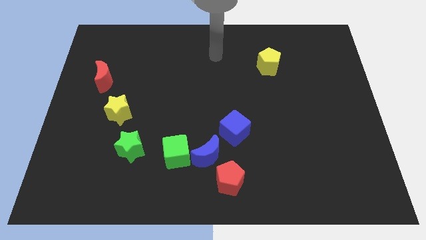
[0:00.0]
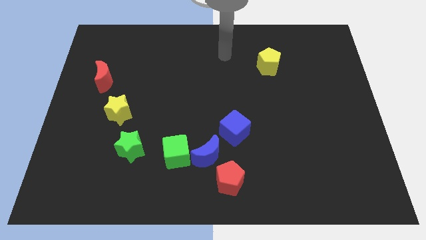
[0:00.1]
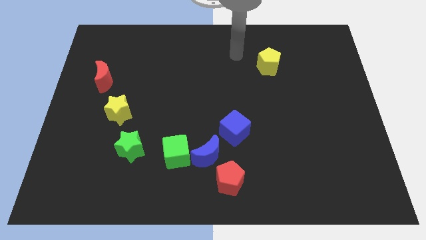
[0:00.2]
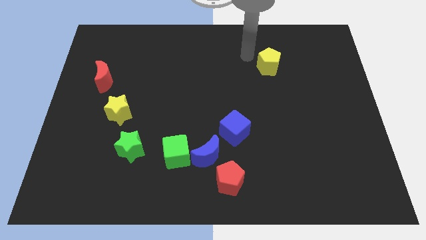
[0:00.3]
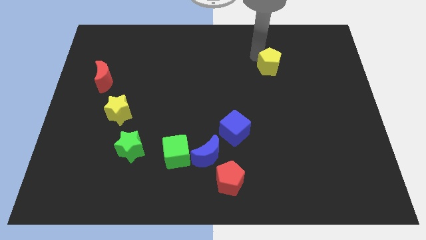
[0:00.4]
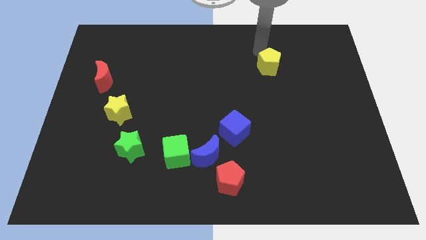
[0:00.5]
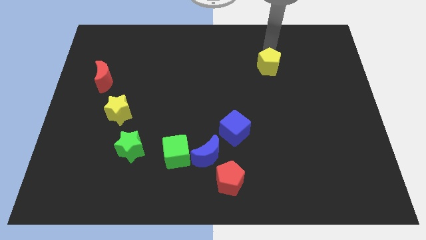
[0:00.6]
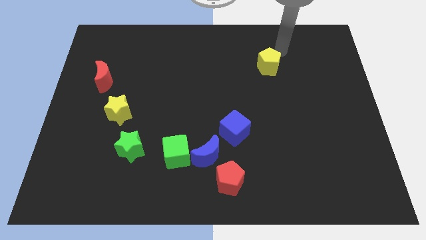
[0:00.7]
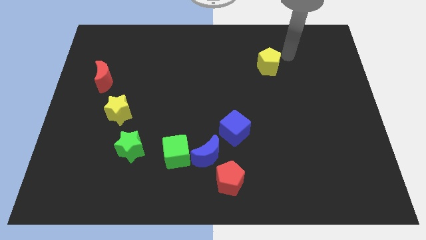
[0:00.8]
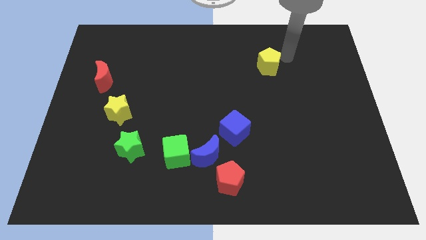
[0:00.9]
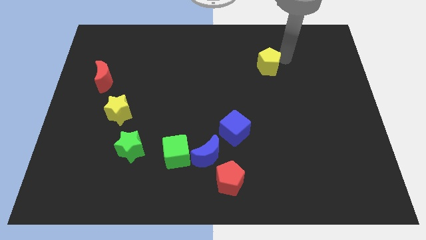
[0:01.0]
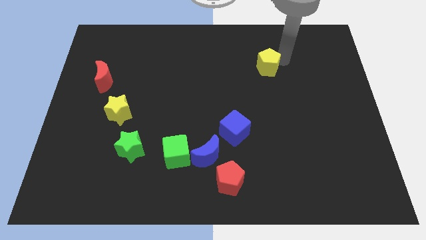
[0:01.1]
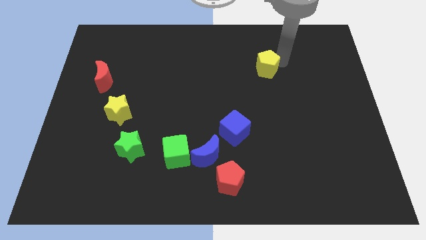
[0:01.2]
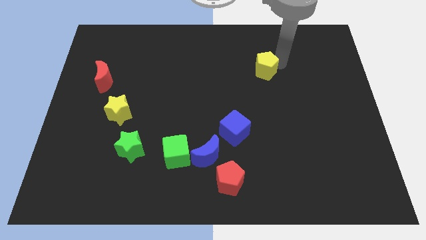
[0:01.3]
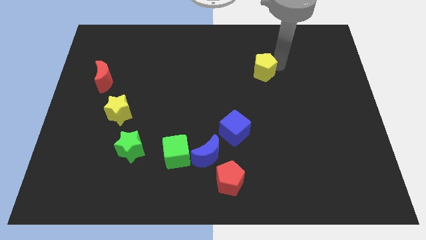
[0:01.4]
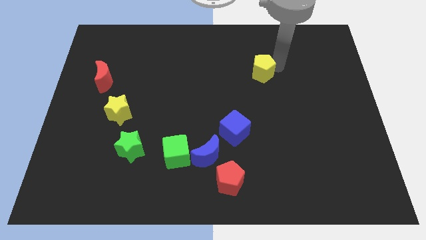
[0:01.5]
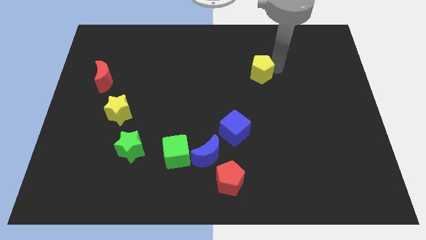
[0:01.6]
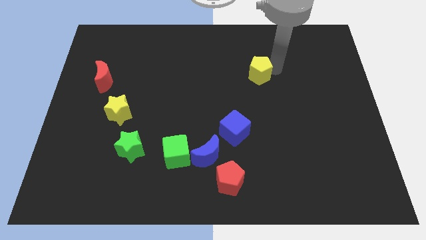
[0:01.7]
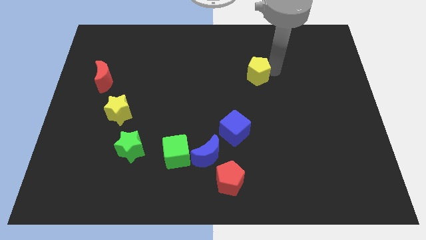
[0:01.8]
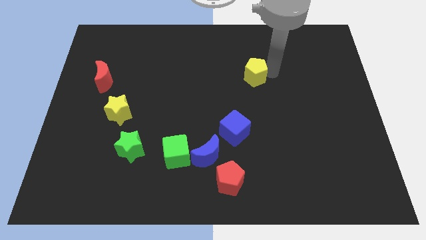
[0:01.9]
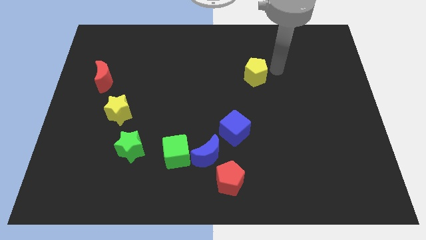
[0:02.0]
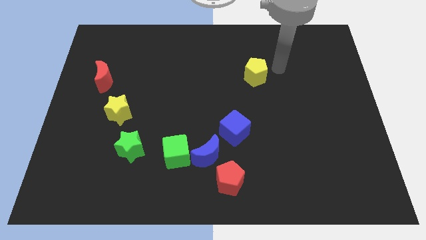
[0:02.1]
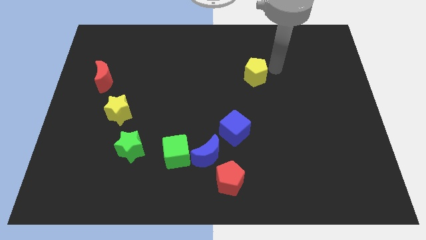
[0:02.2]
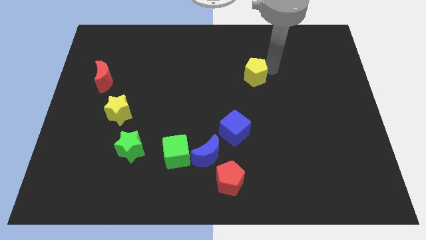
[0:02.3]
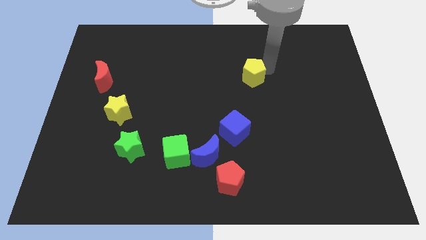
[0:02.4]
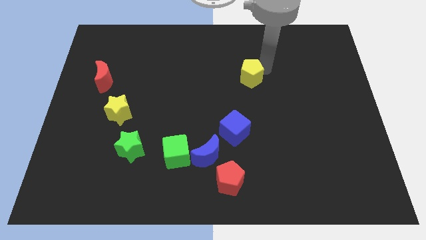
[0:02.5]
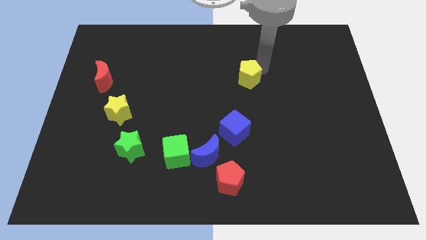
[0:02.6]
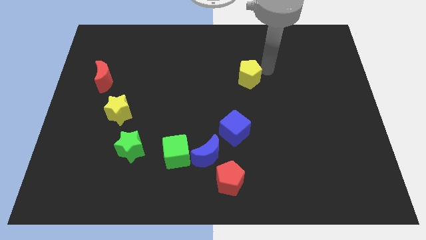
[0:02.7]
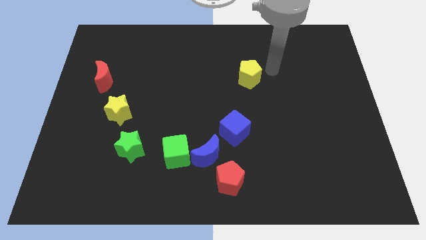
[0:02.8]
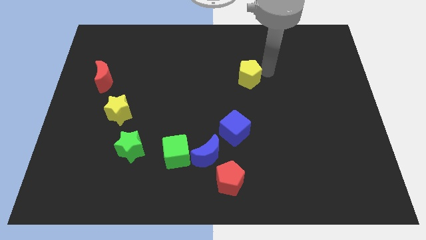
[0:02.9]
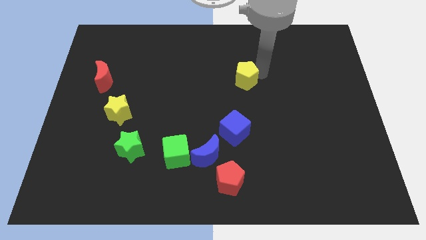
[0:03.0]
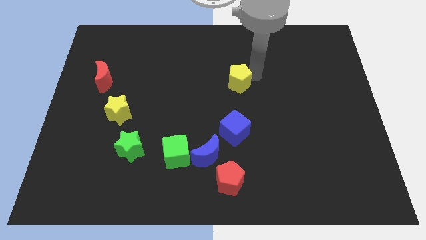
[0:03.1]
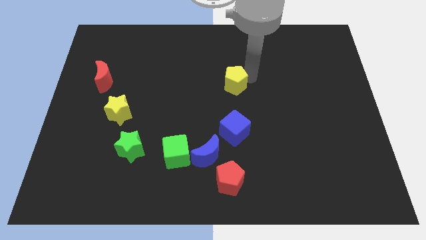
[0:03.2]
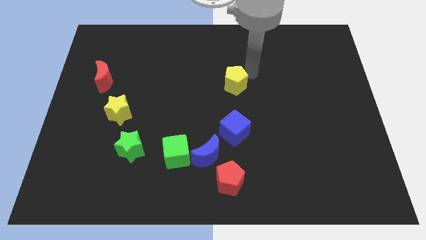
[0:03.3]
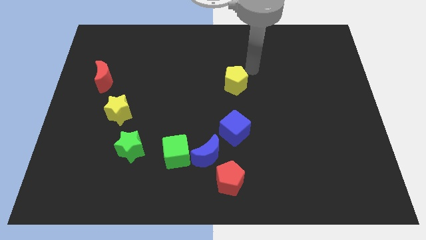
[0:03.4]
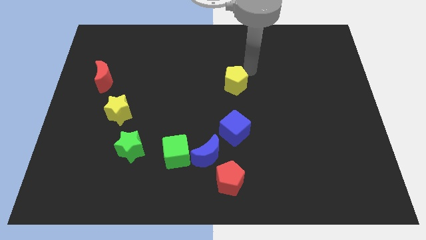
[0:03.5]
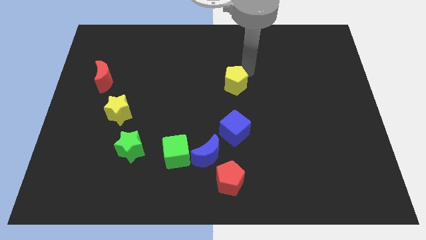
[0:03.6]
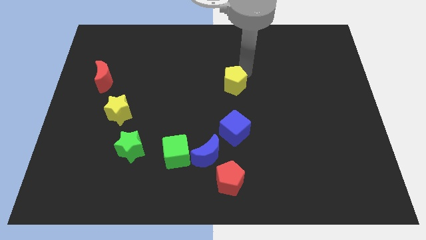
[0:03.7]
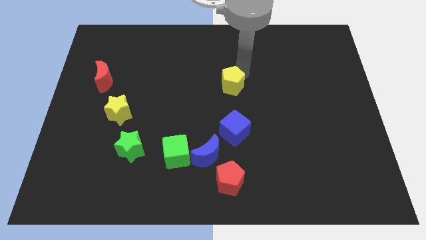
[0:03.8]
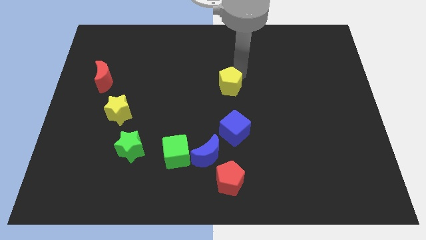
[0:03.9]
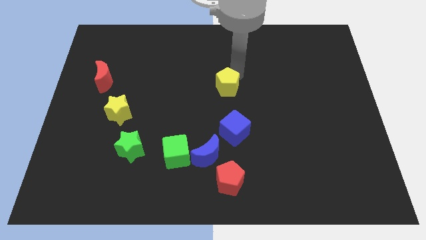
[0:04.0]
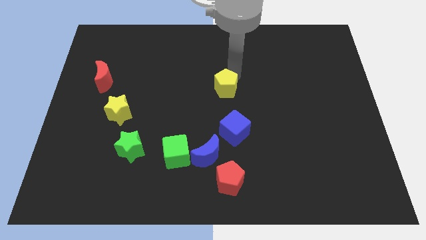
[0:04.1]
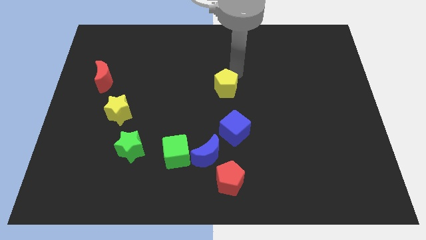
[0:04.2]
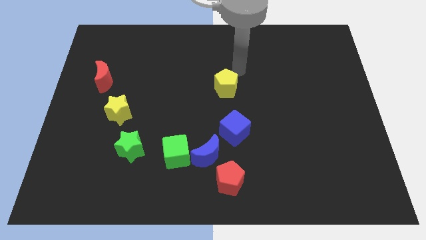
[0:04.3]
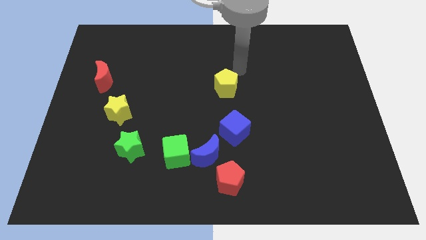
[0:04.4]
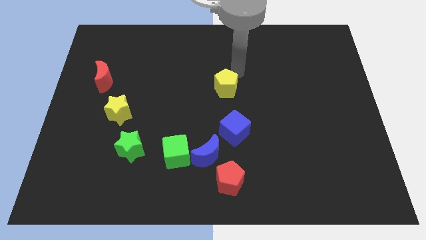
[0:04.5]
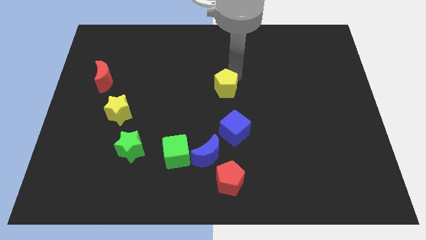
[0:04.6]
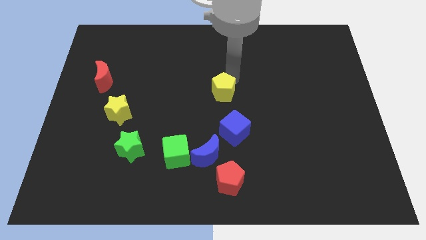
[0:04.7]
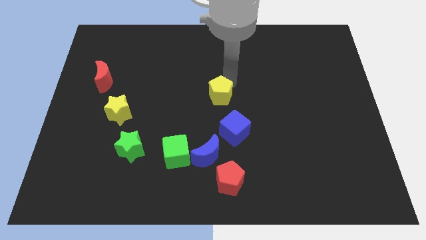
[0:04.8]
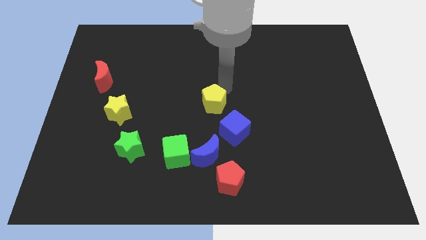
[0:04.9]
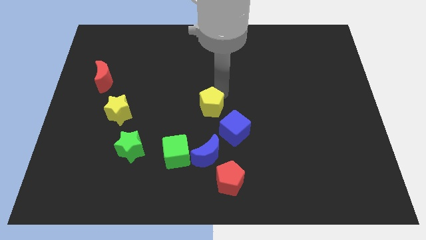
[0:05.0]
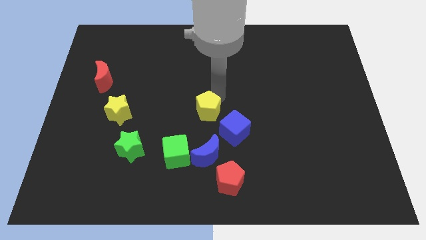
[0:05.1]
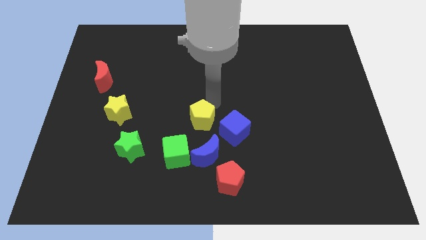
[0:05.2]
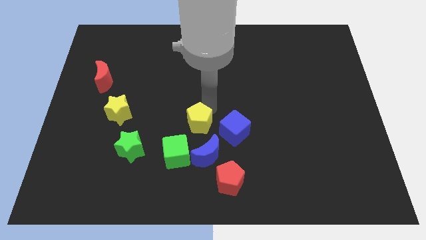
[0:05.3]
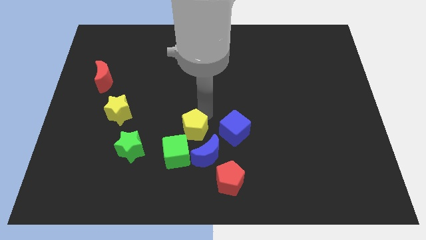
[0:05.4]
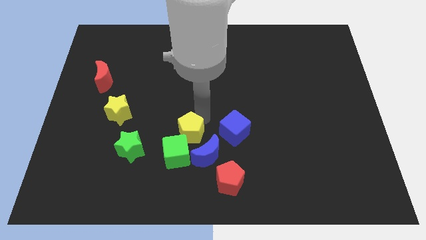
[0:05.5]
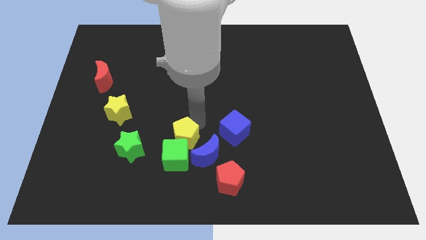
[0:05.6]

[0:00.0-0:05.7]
slide the yellow pentagon to the green cube

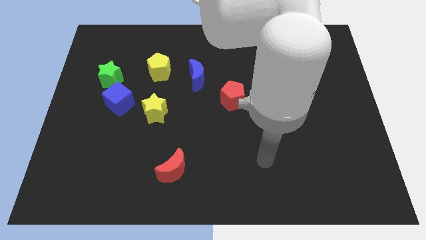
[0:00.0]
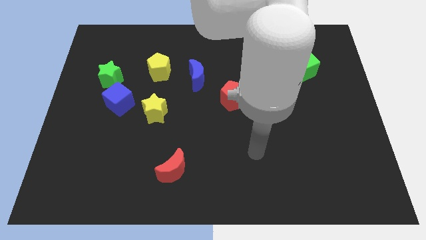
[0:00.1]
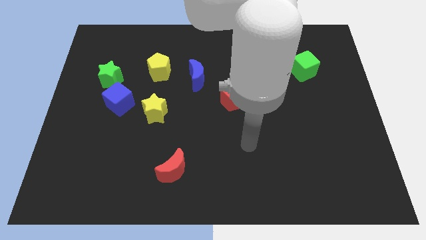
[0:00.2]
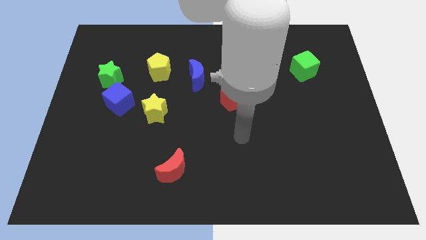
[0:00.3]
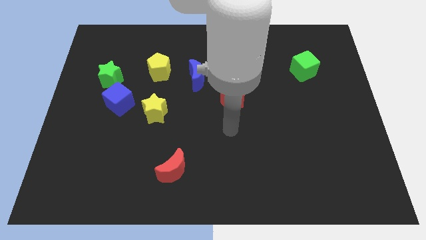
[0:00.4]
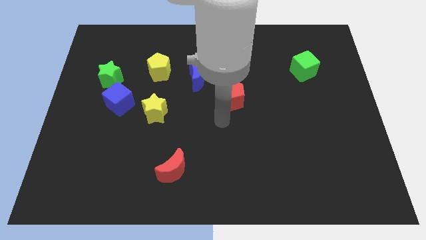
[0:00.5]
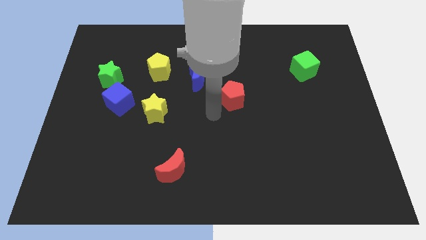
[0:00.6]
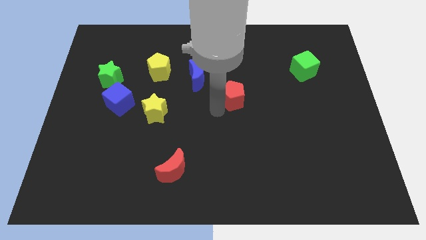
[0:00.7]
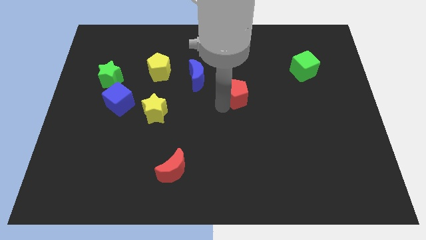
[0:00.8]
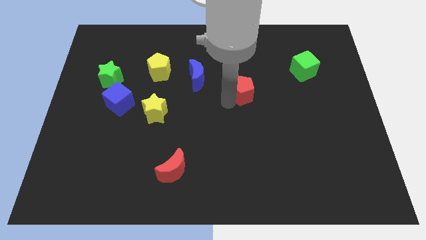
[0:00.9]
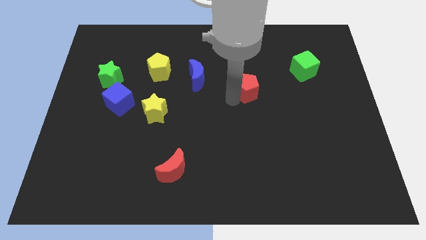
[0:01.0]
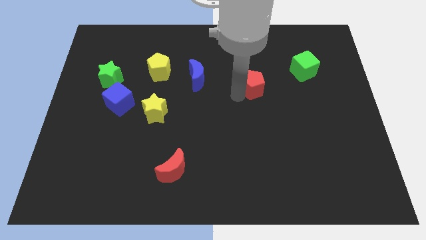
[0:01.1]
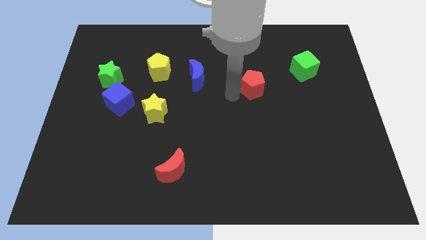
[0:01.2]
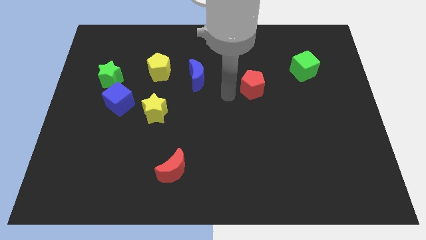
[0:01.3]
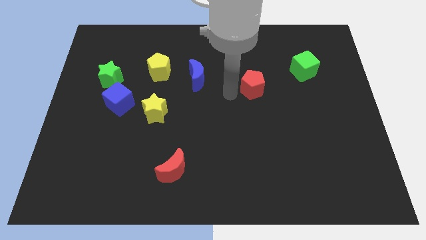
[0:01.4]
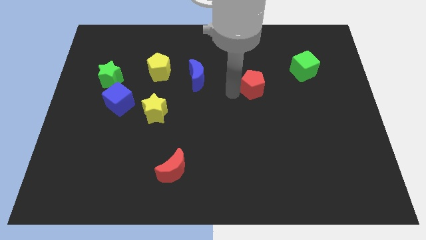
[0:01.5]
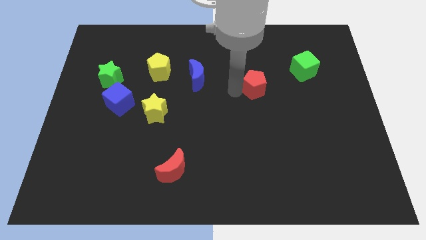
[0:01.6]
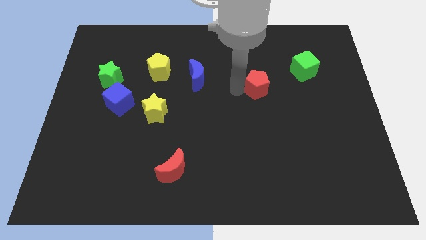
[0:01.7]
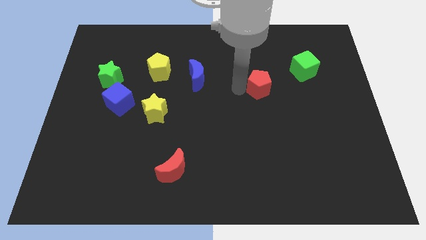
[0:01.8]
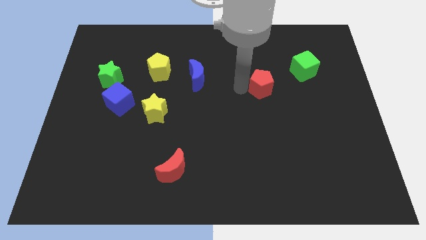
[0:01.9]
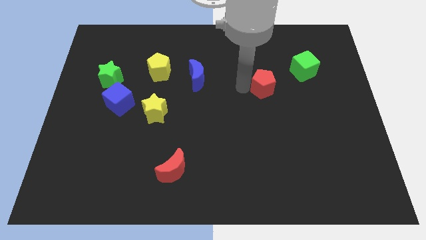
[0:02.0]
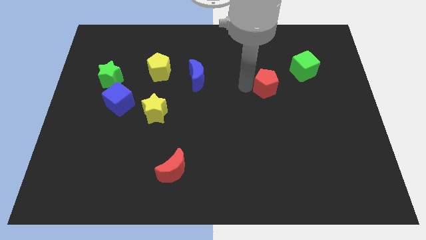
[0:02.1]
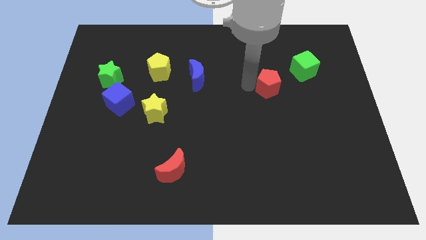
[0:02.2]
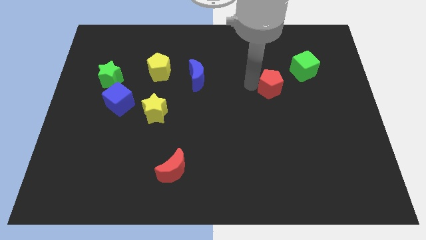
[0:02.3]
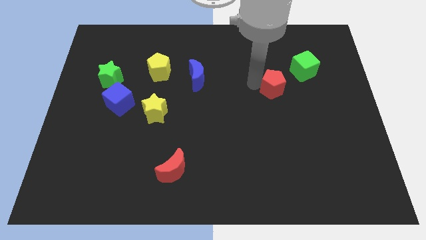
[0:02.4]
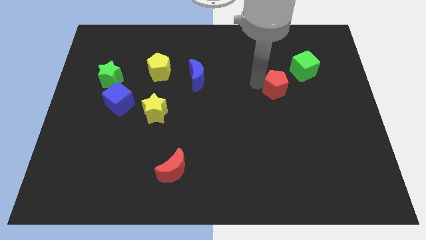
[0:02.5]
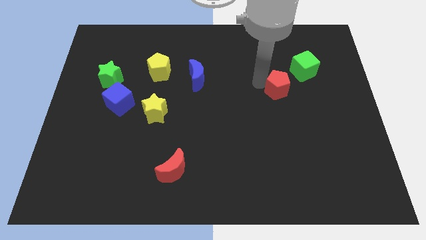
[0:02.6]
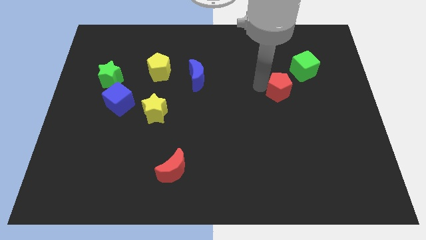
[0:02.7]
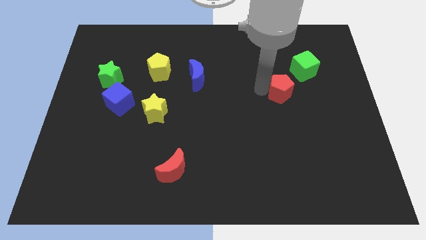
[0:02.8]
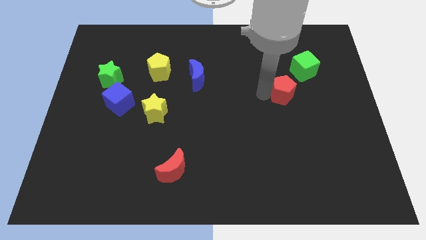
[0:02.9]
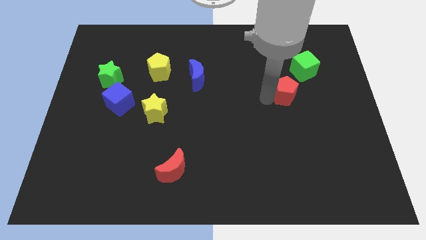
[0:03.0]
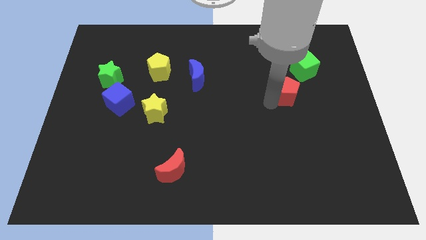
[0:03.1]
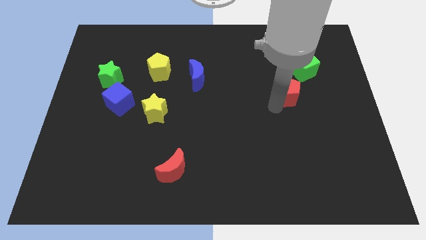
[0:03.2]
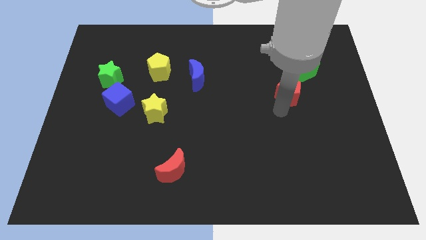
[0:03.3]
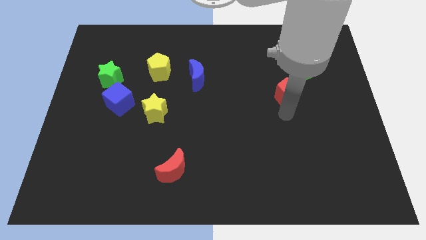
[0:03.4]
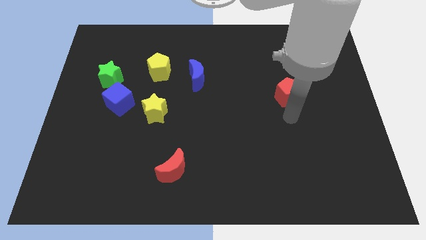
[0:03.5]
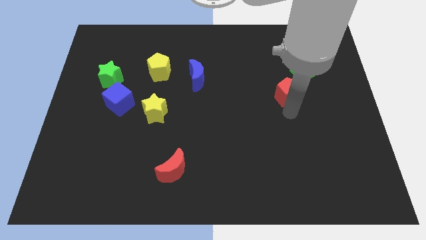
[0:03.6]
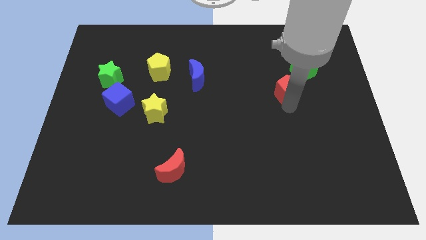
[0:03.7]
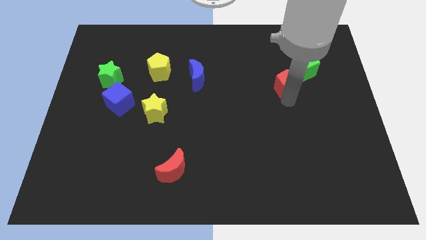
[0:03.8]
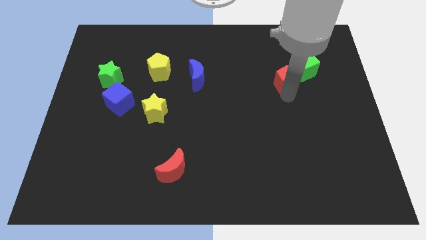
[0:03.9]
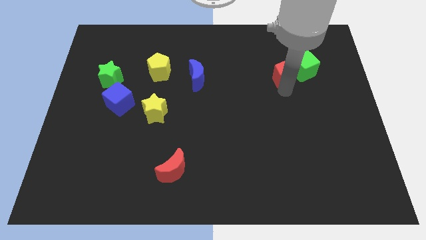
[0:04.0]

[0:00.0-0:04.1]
slide the red pentagon towards the green cube
